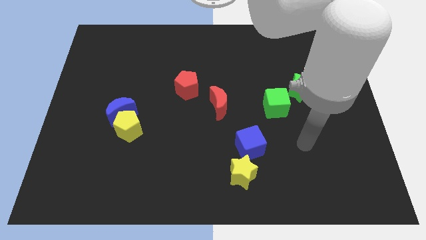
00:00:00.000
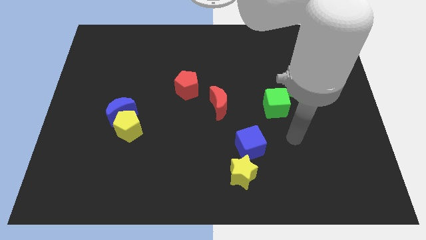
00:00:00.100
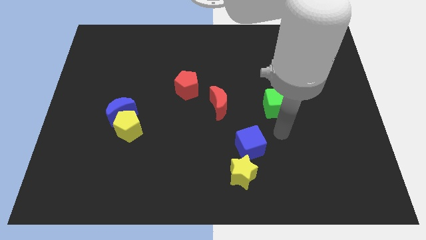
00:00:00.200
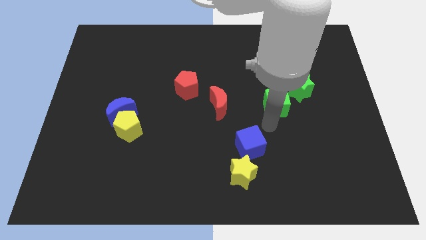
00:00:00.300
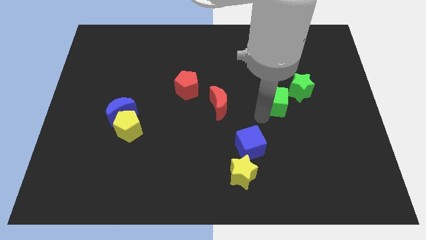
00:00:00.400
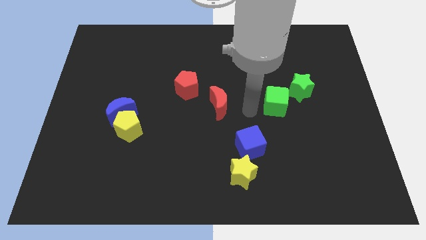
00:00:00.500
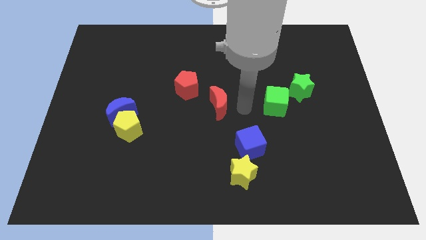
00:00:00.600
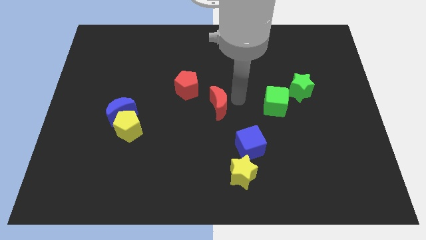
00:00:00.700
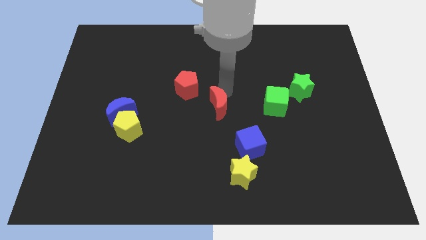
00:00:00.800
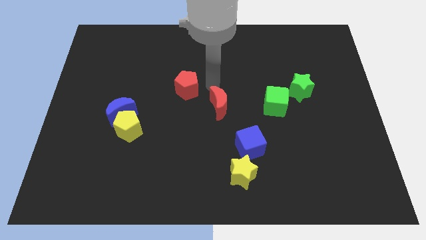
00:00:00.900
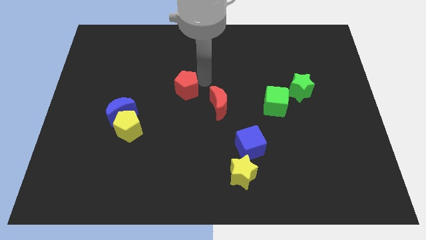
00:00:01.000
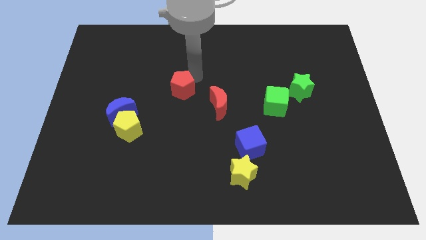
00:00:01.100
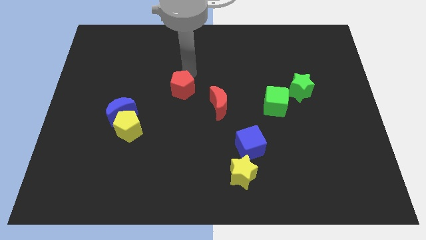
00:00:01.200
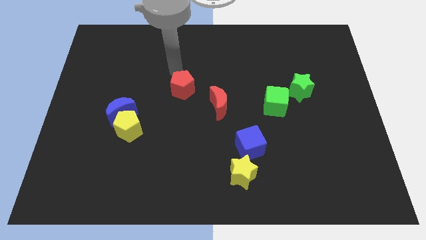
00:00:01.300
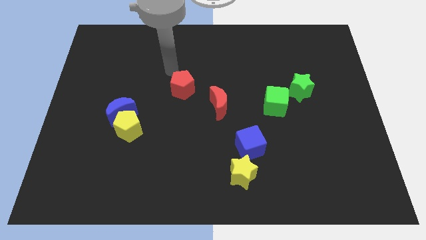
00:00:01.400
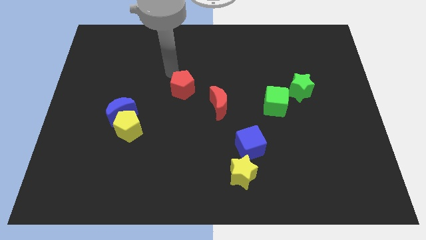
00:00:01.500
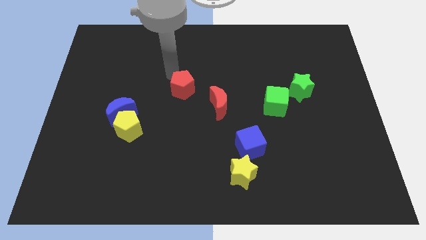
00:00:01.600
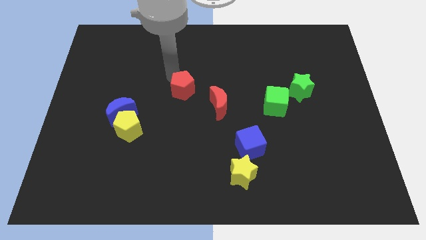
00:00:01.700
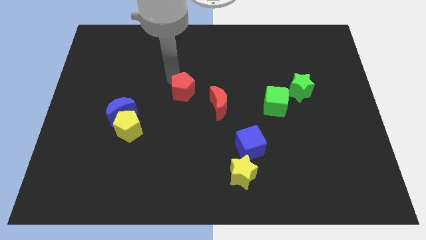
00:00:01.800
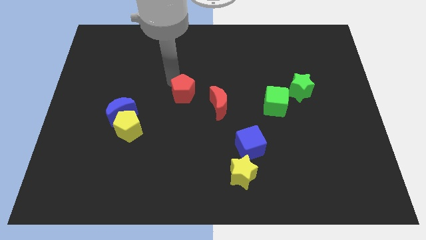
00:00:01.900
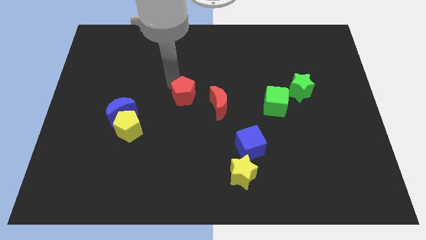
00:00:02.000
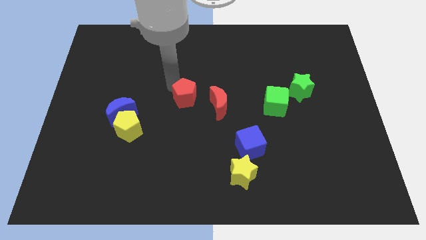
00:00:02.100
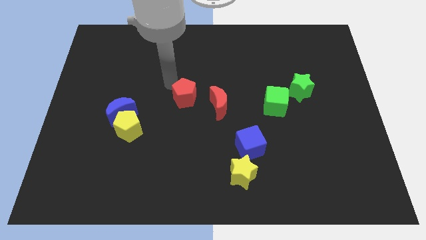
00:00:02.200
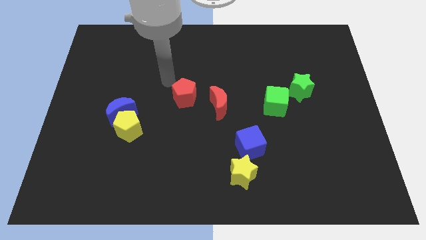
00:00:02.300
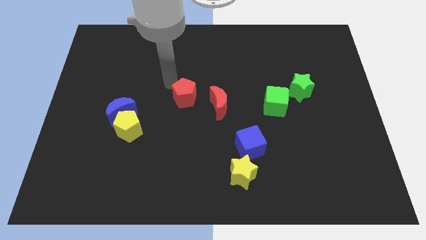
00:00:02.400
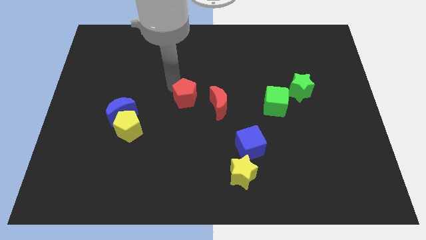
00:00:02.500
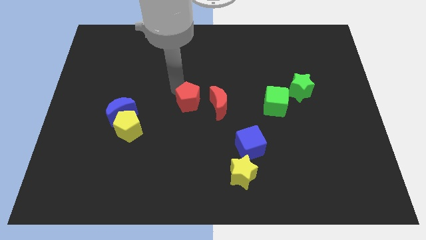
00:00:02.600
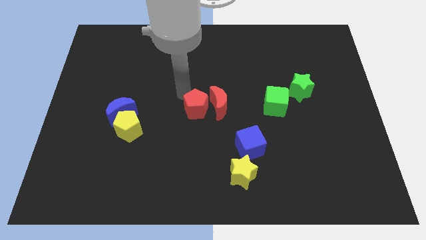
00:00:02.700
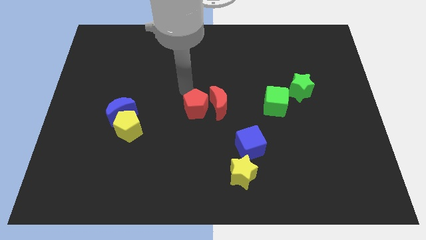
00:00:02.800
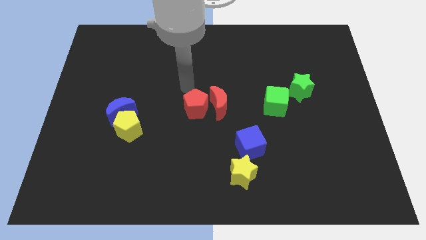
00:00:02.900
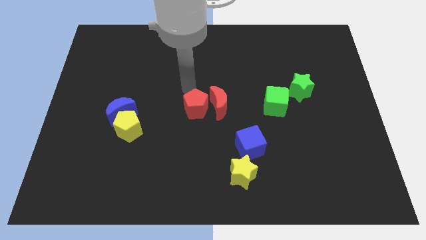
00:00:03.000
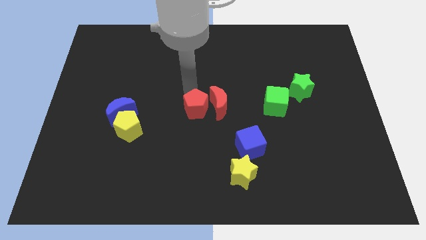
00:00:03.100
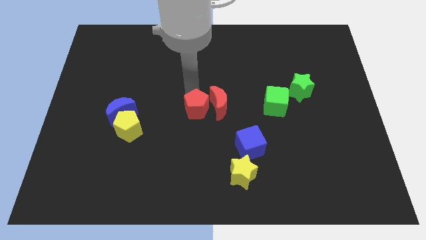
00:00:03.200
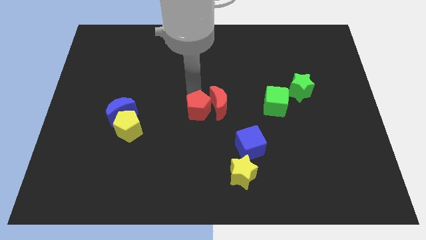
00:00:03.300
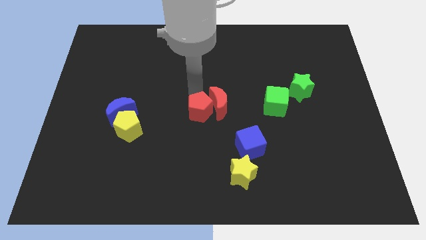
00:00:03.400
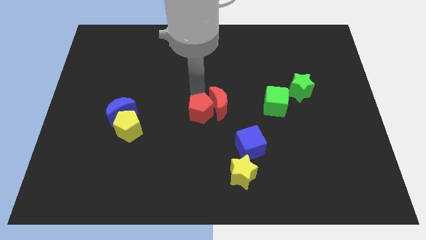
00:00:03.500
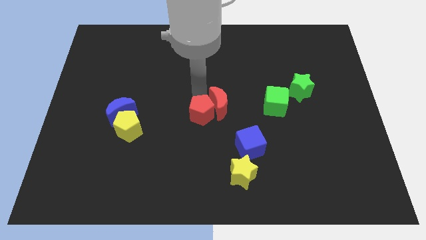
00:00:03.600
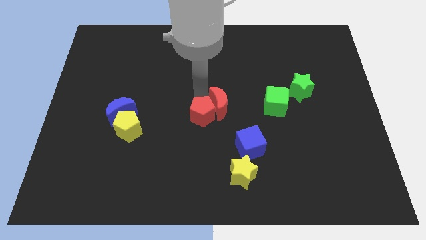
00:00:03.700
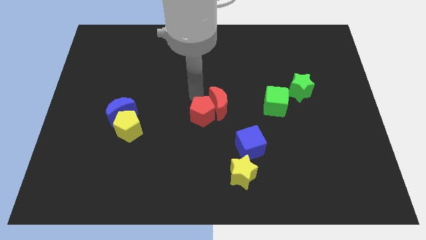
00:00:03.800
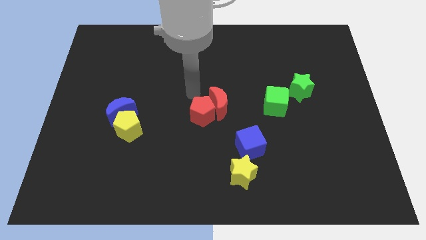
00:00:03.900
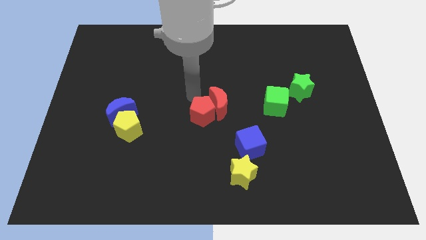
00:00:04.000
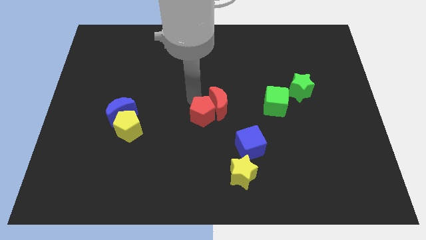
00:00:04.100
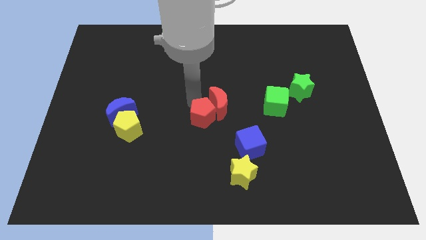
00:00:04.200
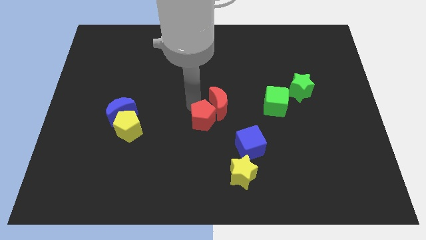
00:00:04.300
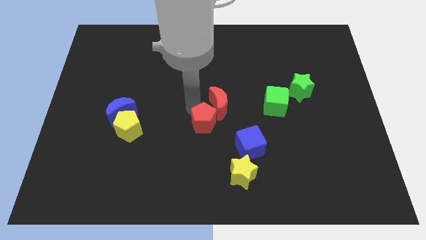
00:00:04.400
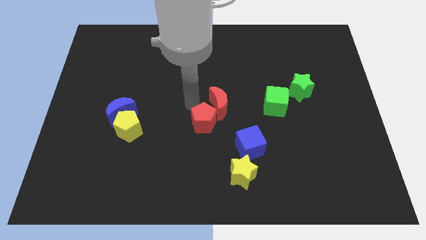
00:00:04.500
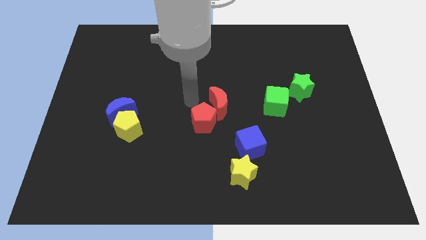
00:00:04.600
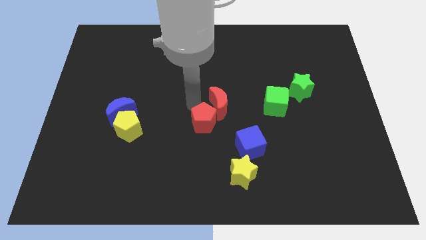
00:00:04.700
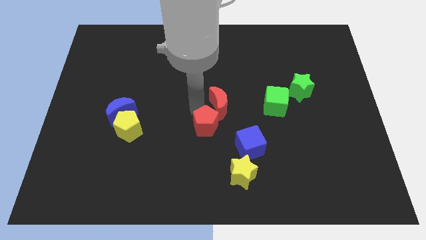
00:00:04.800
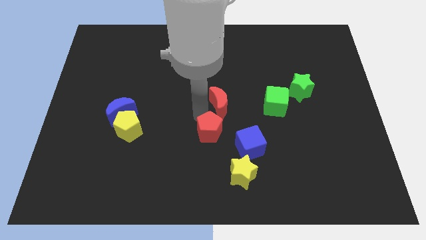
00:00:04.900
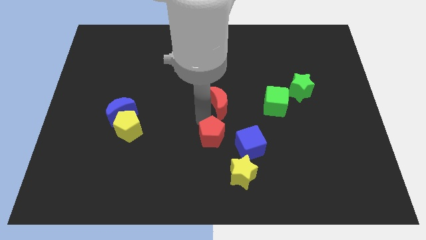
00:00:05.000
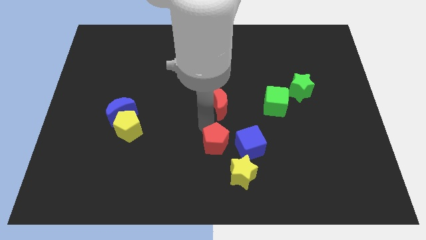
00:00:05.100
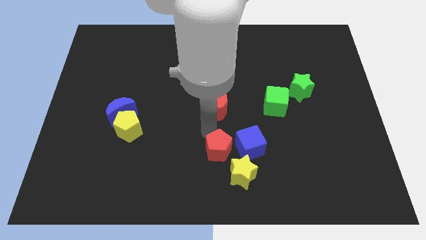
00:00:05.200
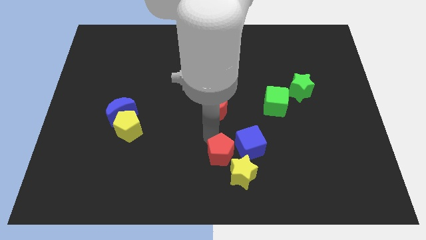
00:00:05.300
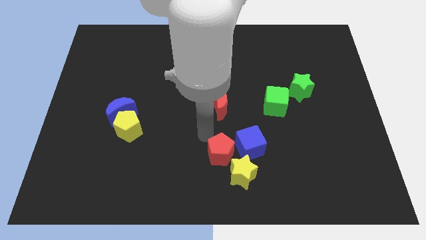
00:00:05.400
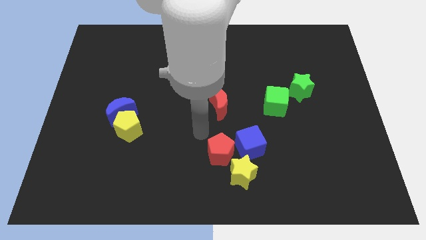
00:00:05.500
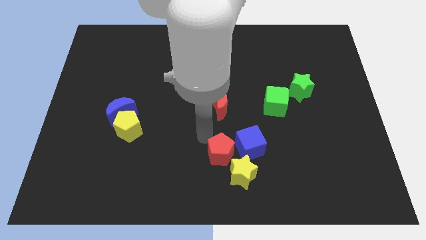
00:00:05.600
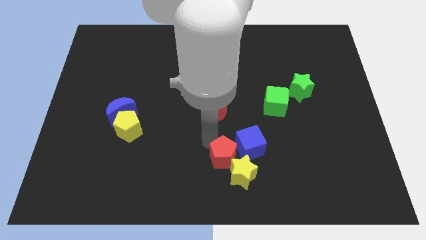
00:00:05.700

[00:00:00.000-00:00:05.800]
move the red pentagon next to the yellow star

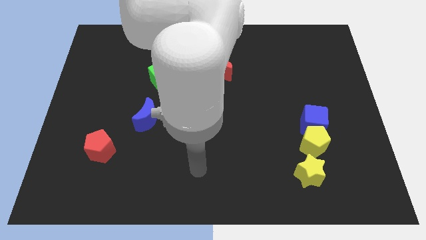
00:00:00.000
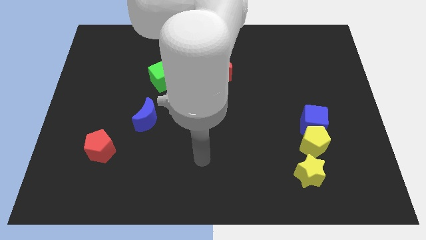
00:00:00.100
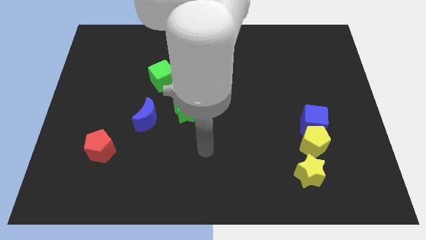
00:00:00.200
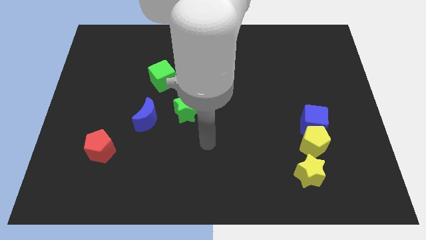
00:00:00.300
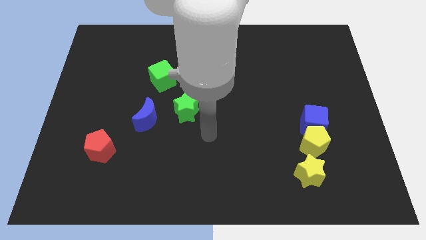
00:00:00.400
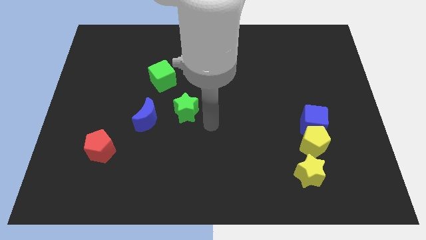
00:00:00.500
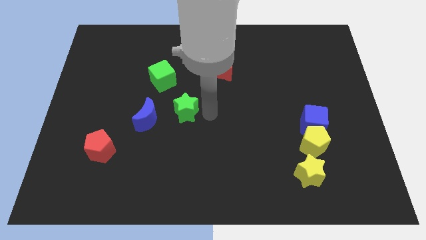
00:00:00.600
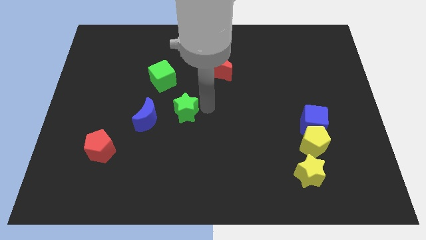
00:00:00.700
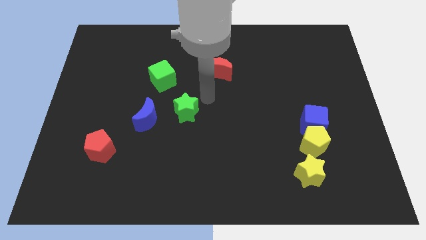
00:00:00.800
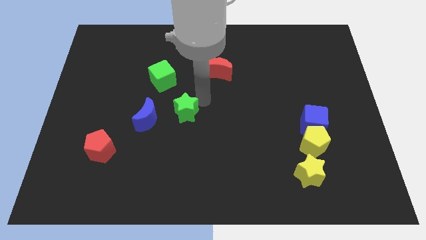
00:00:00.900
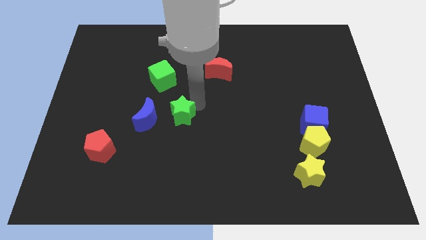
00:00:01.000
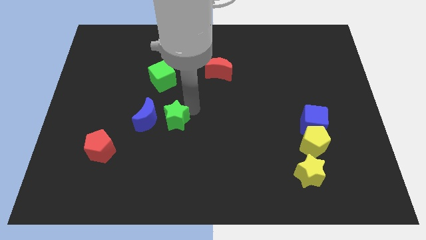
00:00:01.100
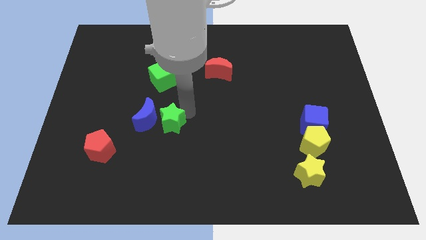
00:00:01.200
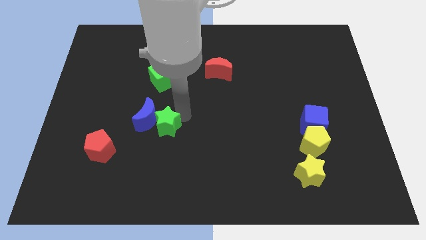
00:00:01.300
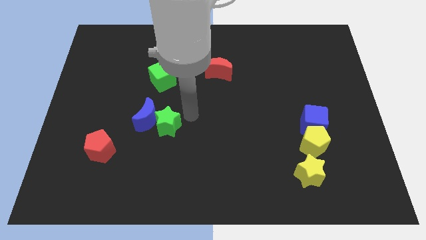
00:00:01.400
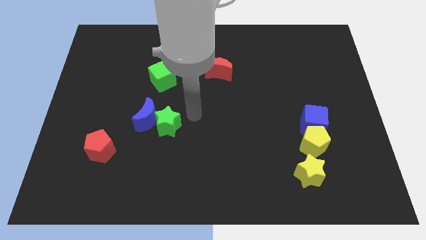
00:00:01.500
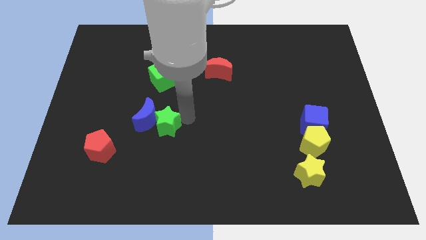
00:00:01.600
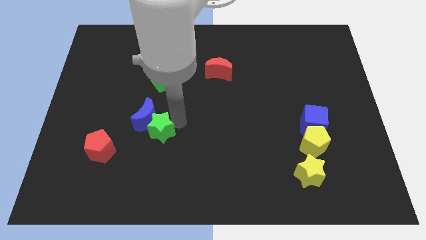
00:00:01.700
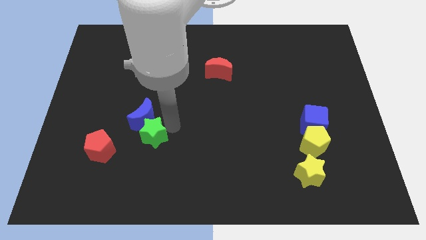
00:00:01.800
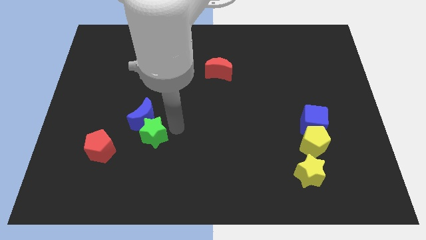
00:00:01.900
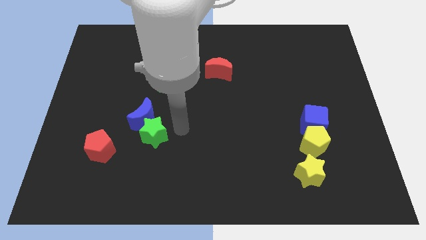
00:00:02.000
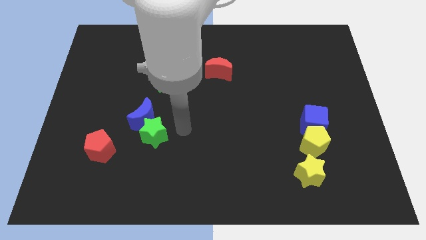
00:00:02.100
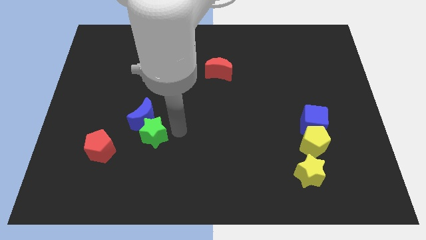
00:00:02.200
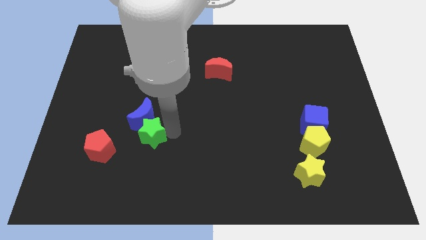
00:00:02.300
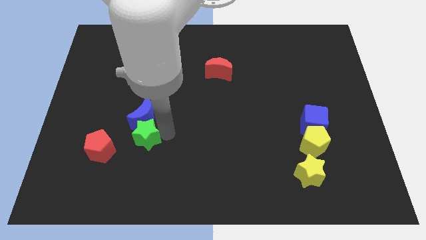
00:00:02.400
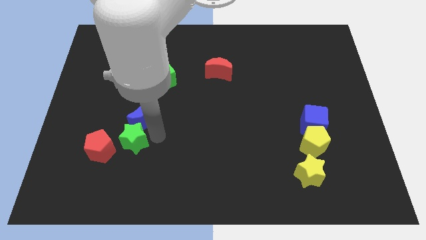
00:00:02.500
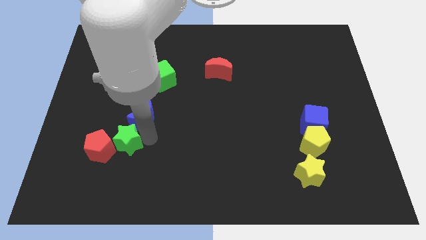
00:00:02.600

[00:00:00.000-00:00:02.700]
put the green star towards the red pentagon
